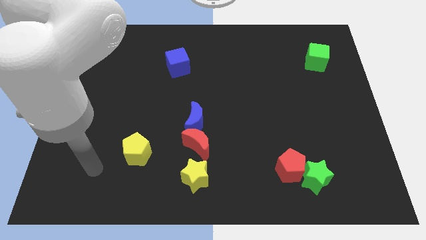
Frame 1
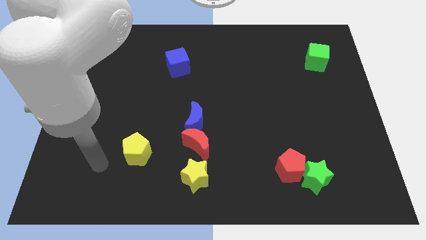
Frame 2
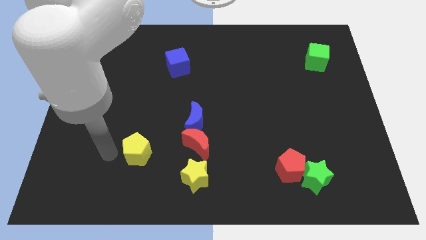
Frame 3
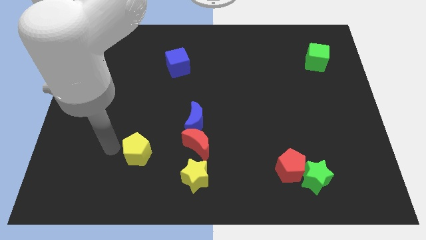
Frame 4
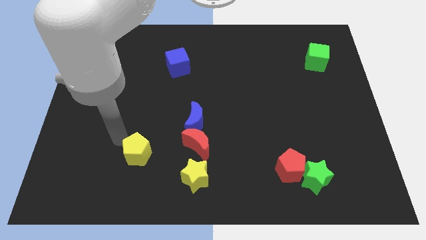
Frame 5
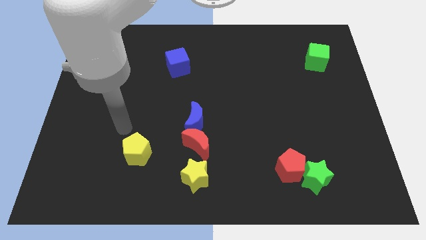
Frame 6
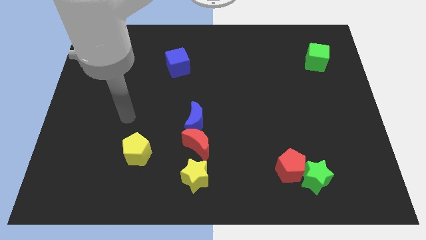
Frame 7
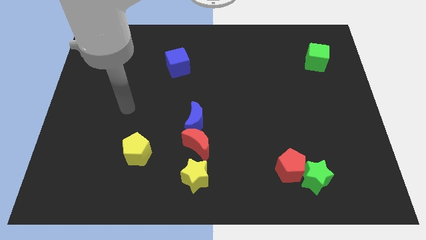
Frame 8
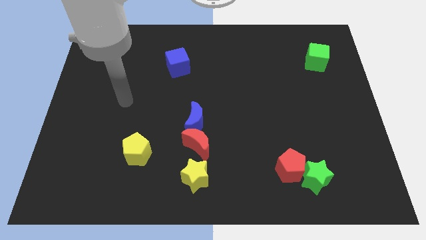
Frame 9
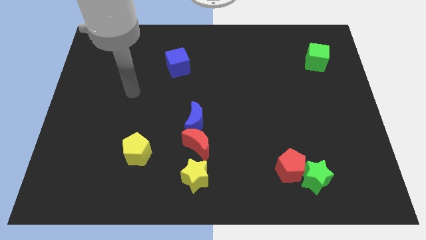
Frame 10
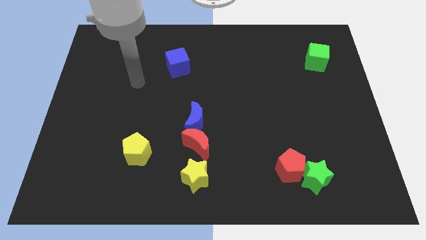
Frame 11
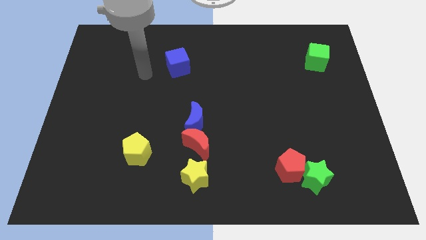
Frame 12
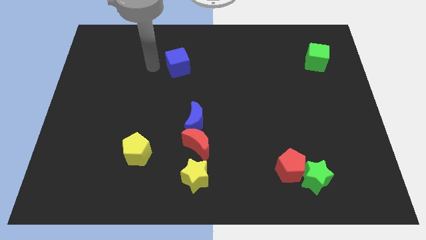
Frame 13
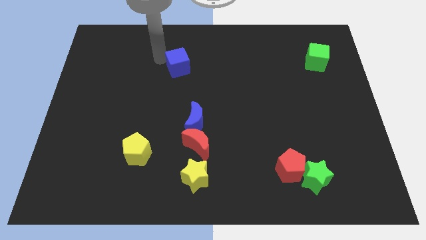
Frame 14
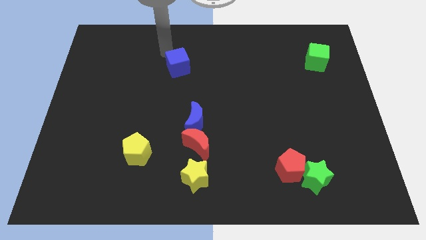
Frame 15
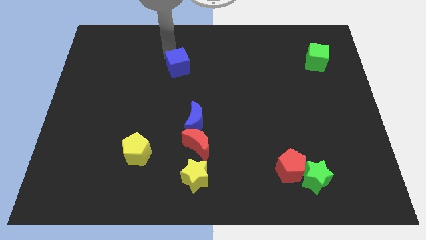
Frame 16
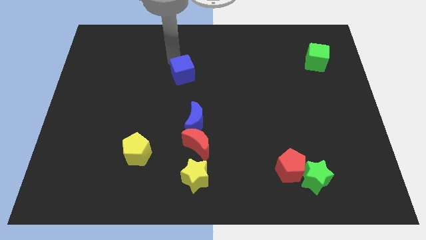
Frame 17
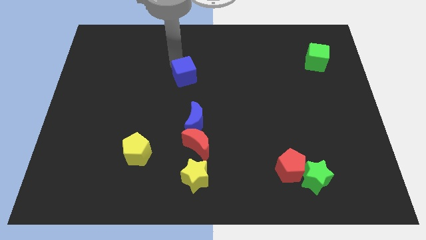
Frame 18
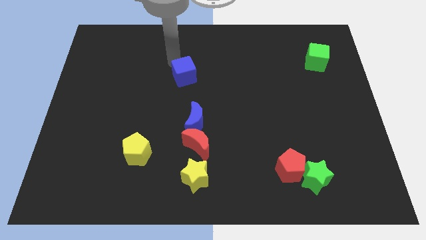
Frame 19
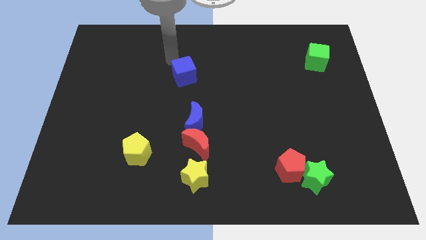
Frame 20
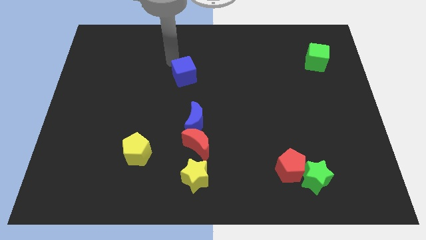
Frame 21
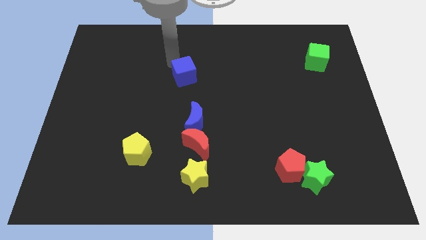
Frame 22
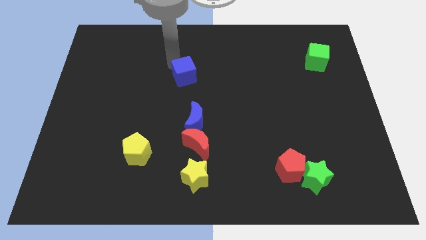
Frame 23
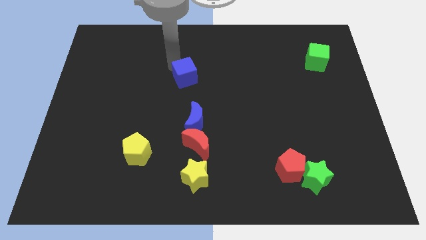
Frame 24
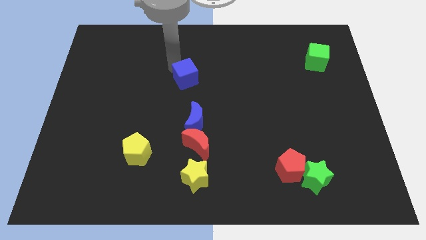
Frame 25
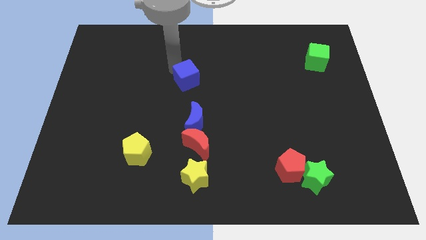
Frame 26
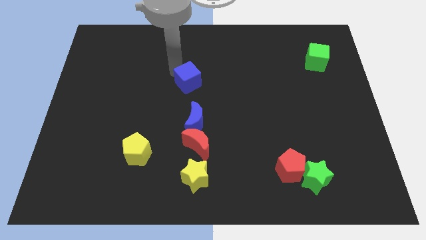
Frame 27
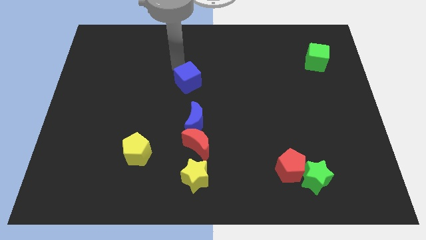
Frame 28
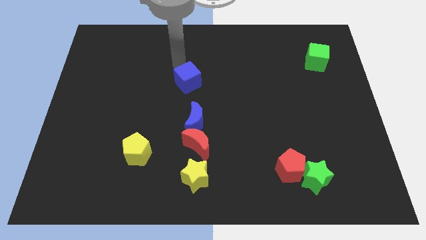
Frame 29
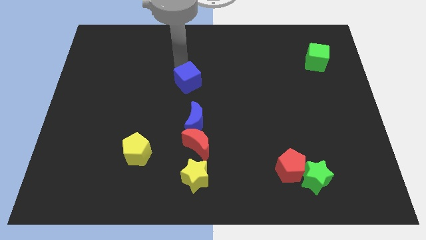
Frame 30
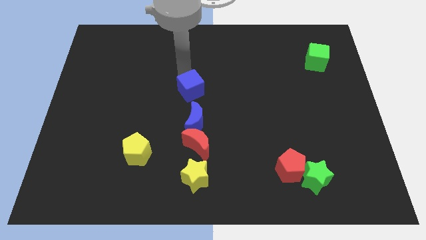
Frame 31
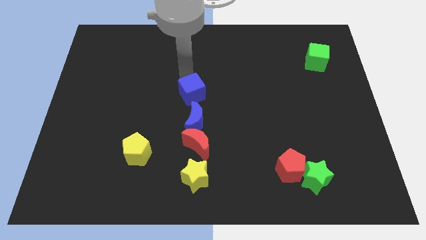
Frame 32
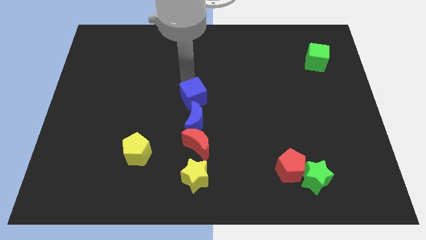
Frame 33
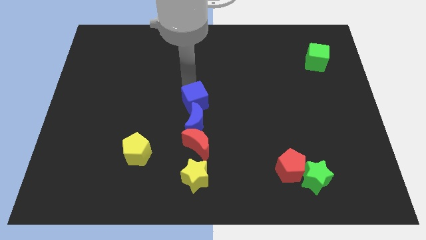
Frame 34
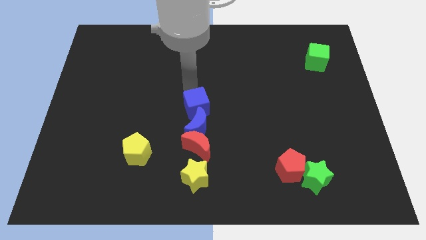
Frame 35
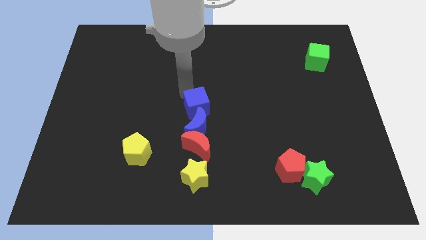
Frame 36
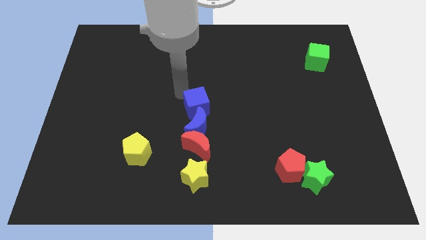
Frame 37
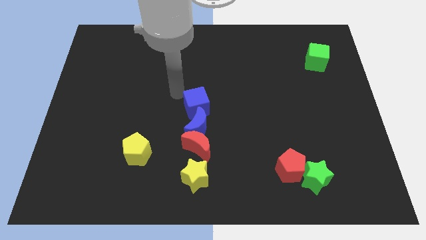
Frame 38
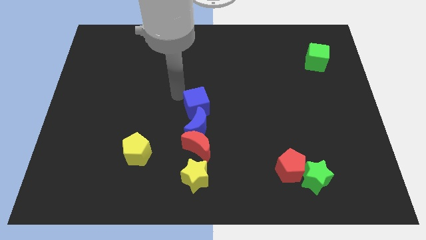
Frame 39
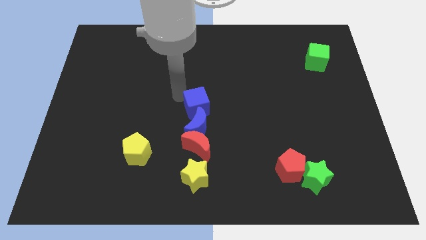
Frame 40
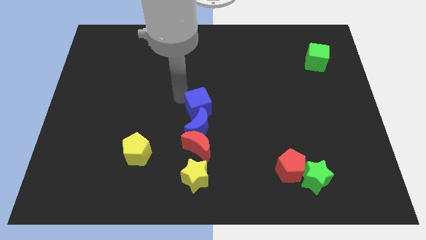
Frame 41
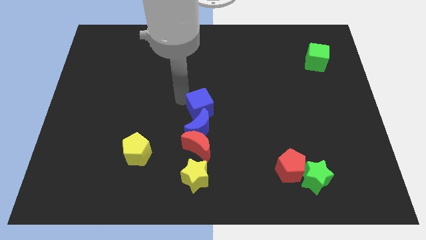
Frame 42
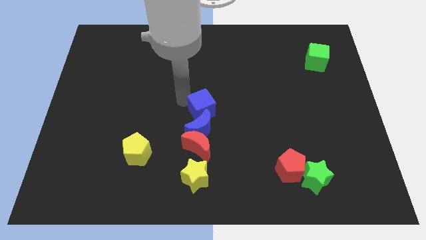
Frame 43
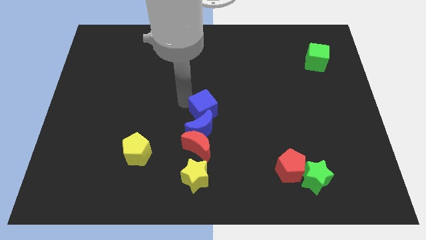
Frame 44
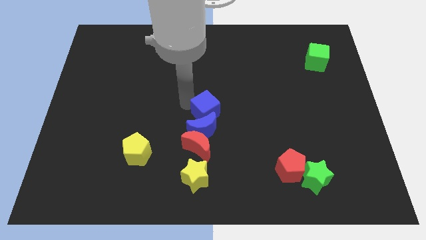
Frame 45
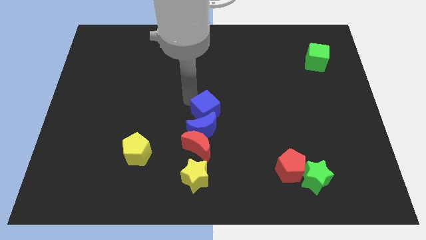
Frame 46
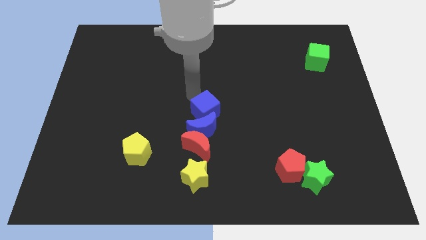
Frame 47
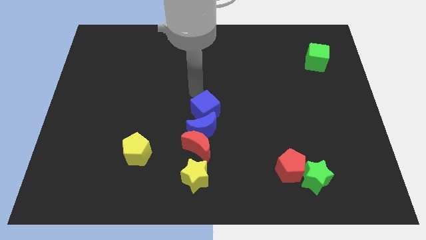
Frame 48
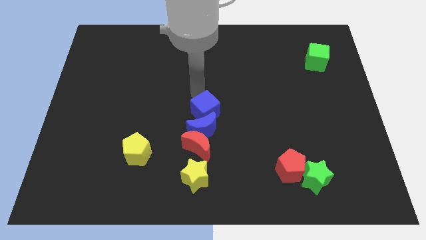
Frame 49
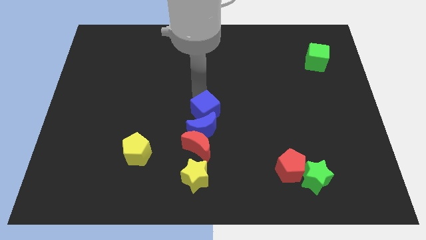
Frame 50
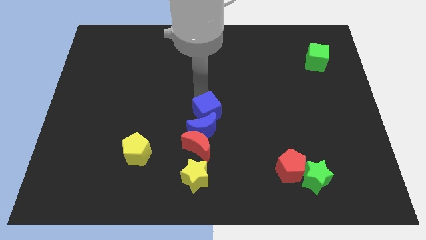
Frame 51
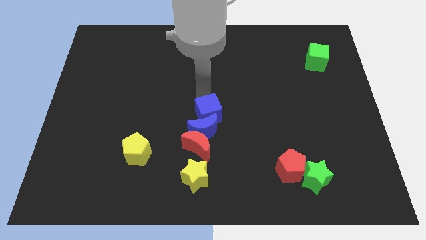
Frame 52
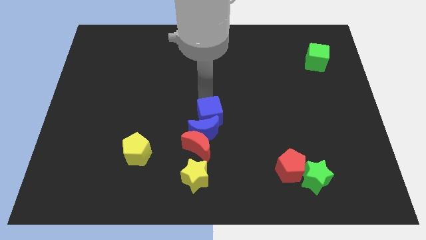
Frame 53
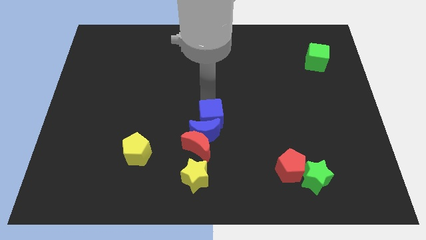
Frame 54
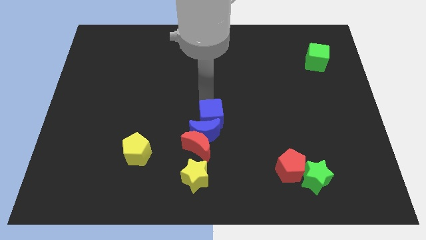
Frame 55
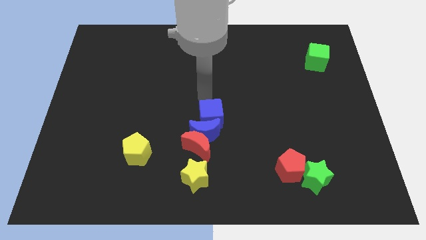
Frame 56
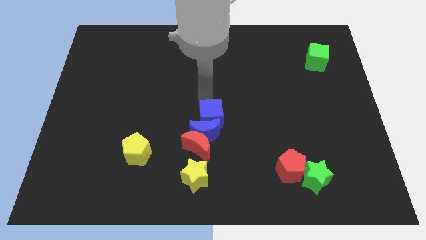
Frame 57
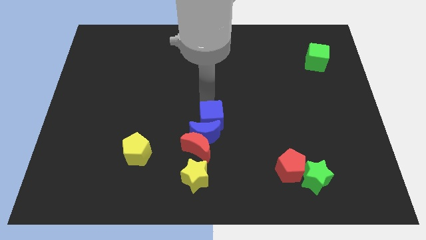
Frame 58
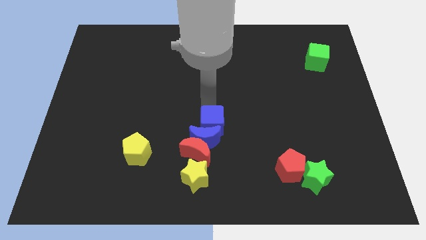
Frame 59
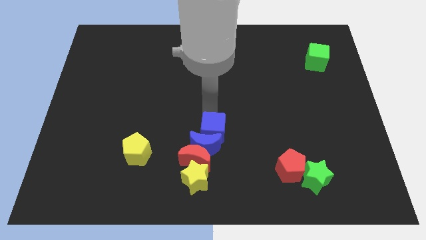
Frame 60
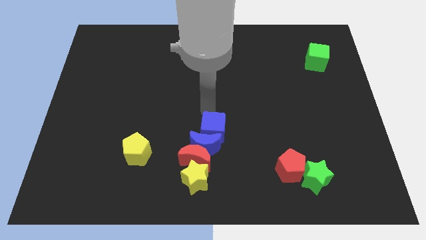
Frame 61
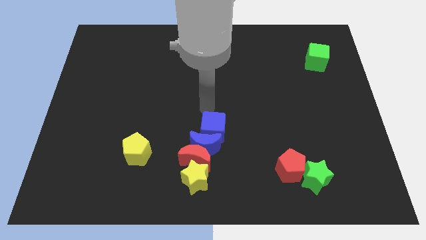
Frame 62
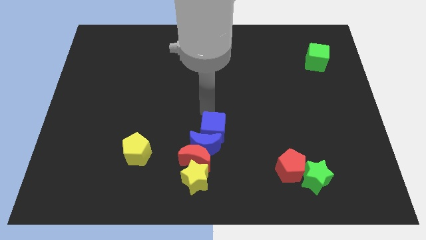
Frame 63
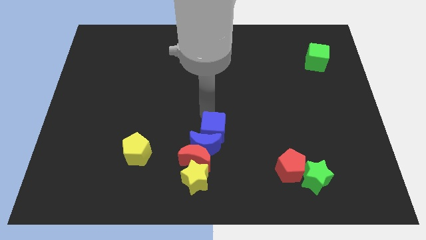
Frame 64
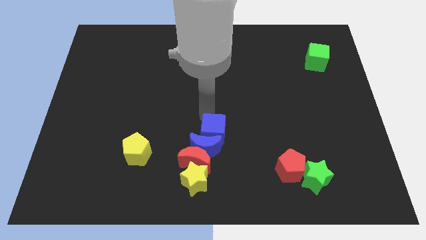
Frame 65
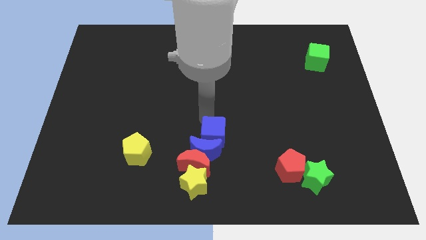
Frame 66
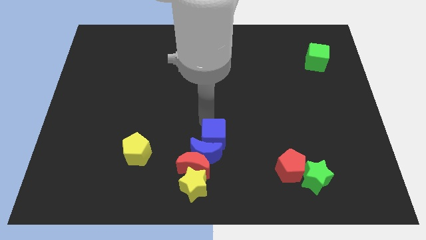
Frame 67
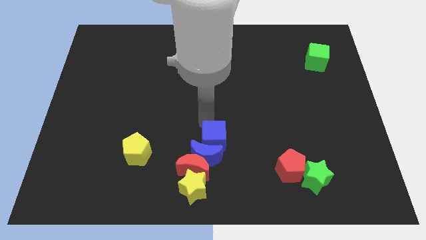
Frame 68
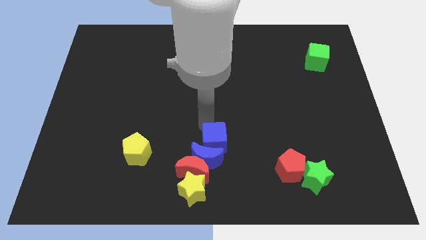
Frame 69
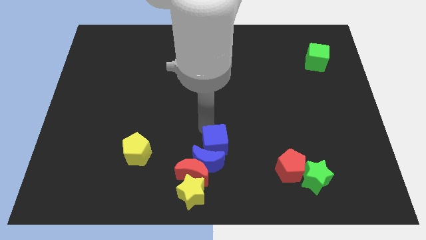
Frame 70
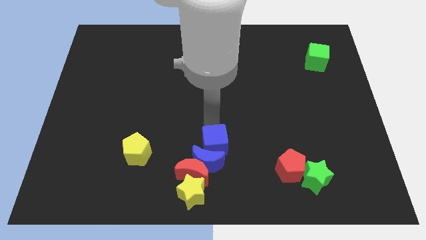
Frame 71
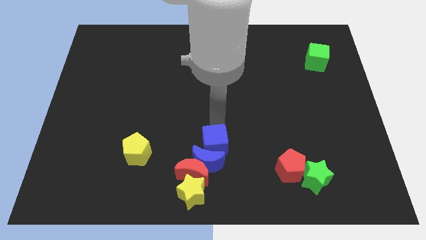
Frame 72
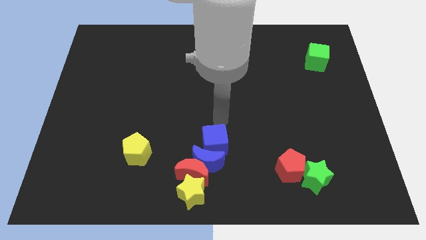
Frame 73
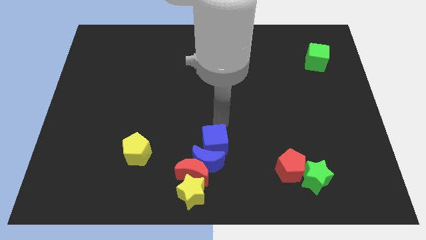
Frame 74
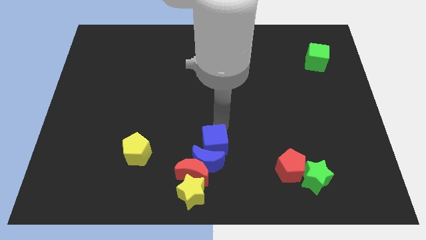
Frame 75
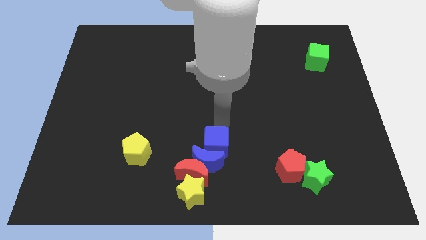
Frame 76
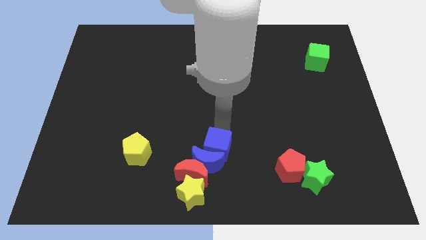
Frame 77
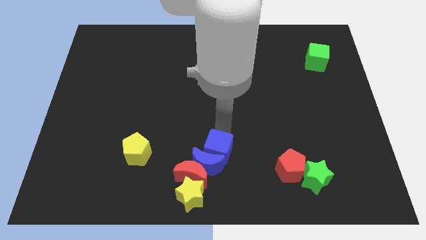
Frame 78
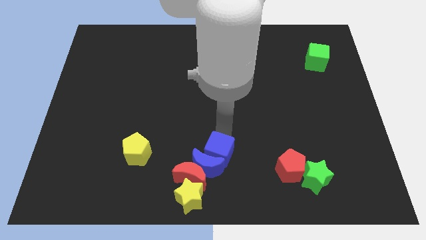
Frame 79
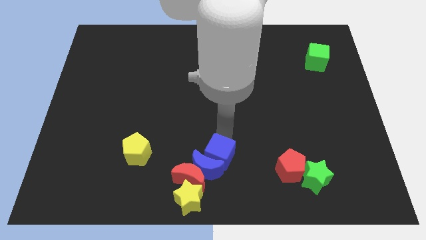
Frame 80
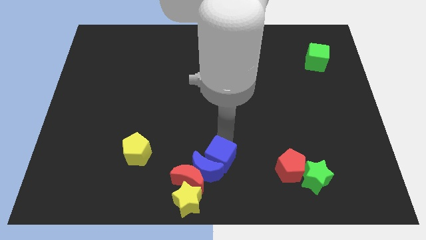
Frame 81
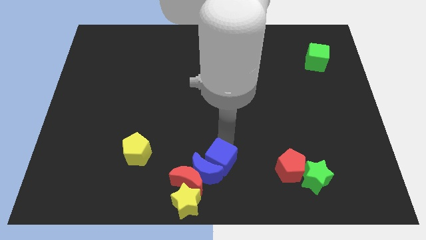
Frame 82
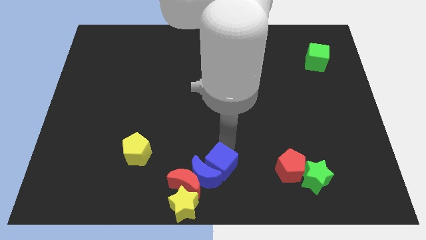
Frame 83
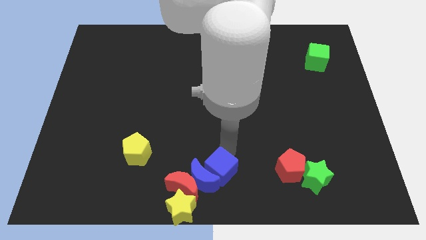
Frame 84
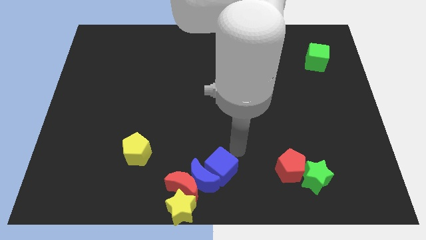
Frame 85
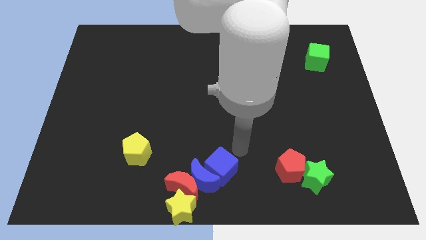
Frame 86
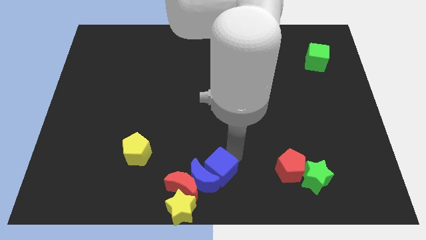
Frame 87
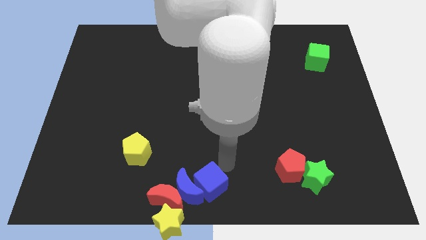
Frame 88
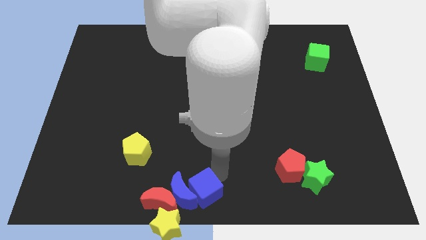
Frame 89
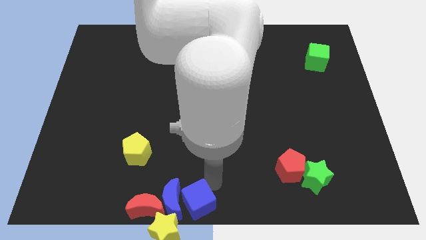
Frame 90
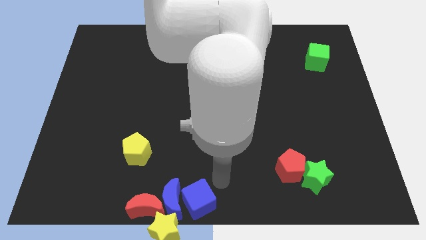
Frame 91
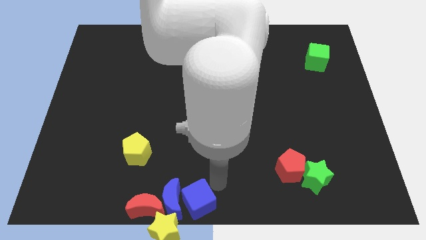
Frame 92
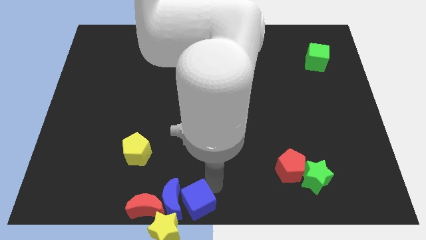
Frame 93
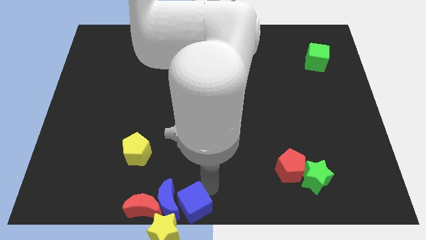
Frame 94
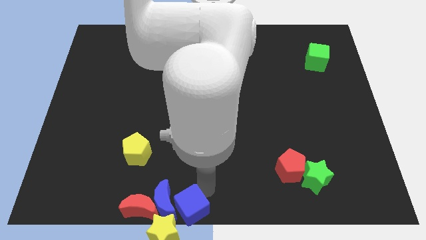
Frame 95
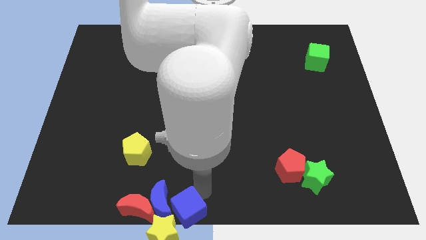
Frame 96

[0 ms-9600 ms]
slide the blue cube towards the yellow star
